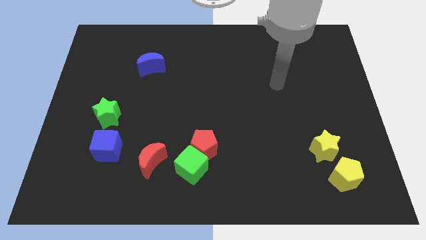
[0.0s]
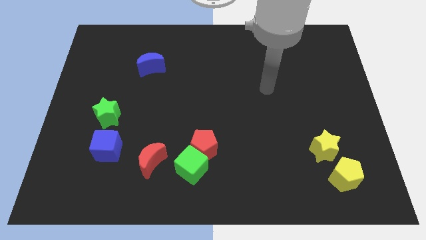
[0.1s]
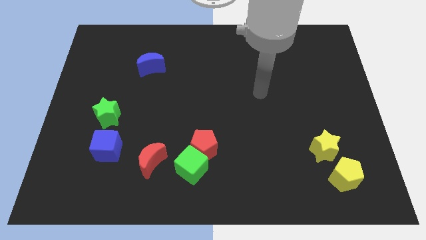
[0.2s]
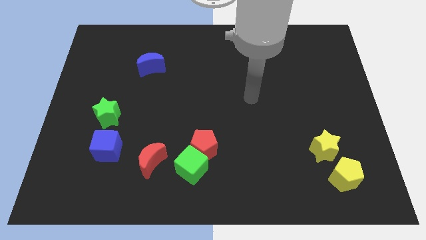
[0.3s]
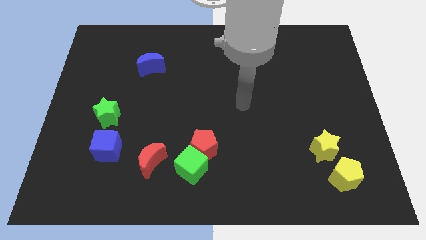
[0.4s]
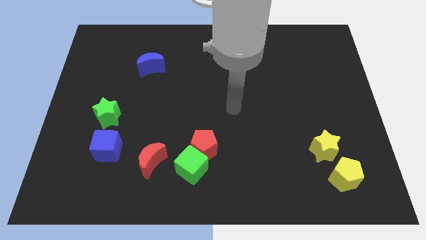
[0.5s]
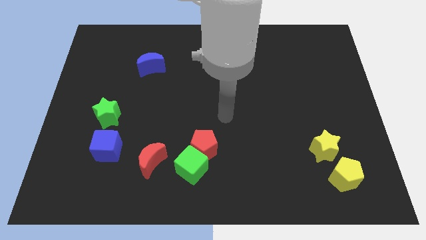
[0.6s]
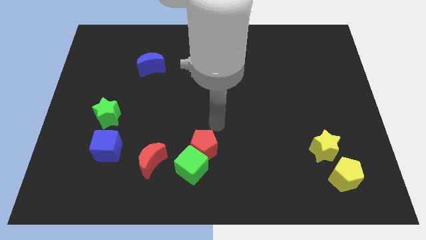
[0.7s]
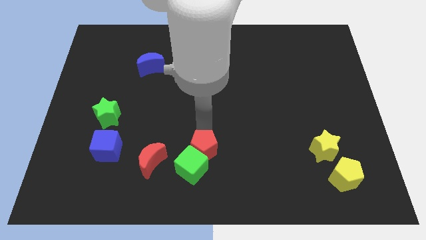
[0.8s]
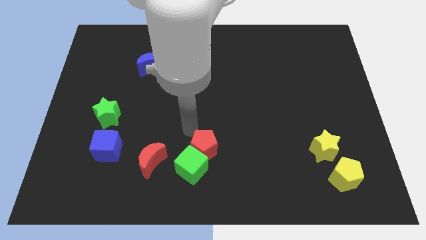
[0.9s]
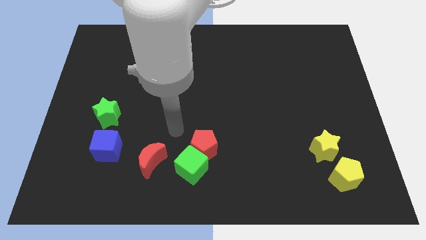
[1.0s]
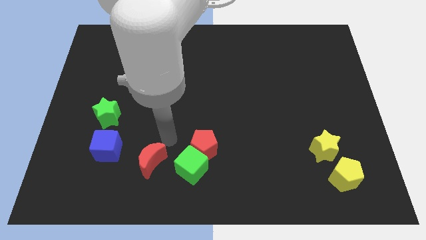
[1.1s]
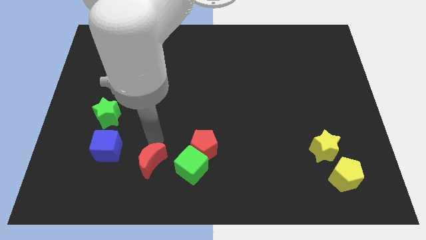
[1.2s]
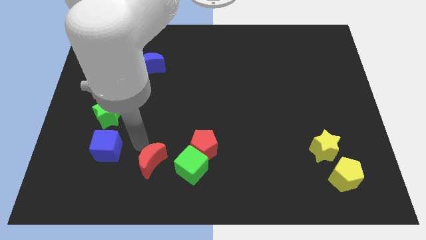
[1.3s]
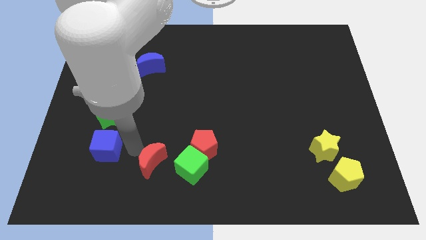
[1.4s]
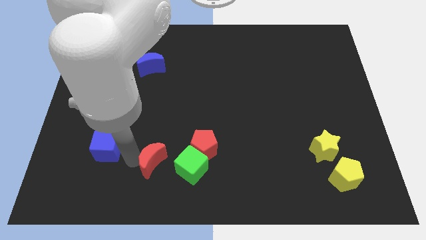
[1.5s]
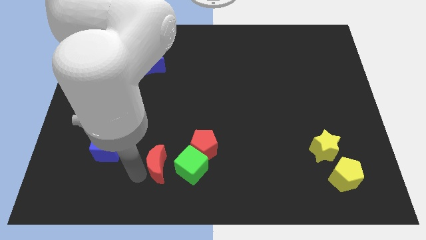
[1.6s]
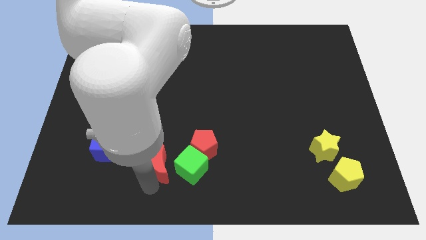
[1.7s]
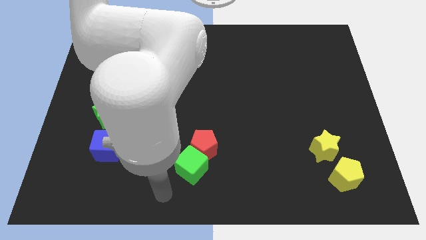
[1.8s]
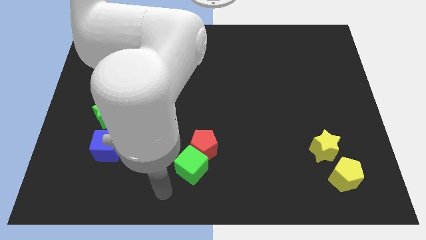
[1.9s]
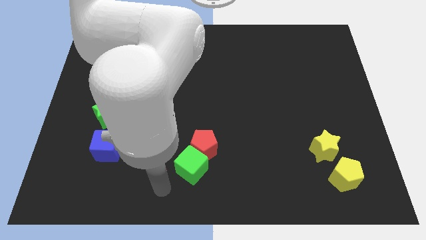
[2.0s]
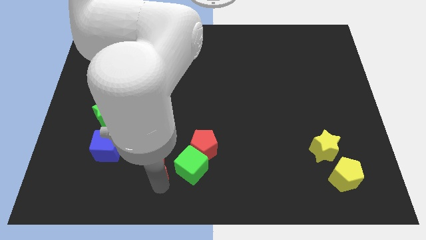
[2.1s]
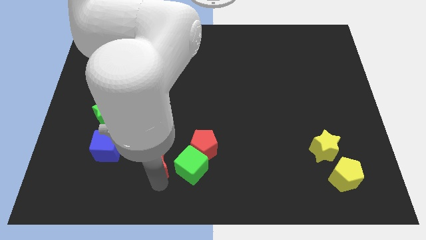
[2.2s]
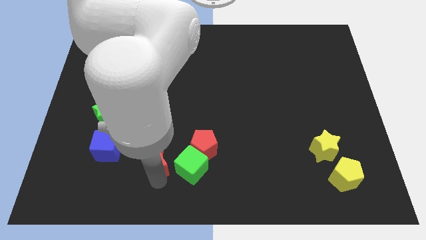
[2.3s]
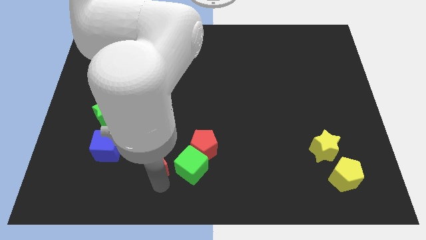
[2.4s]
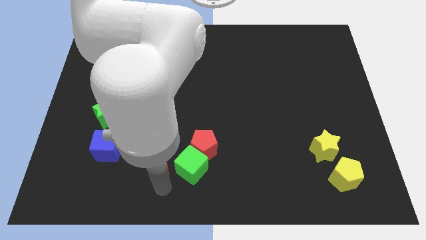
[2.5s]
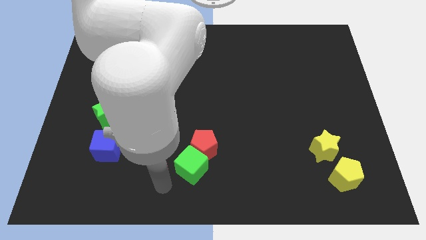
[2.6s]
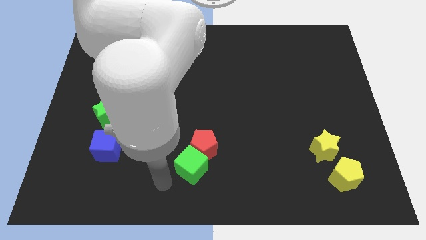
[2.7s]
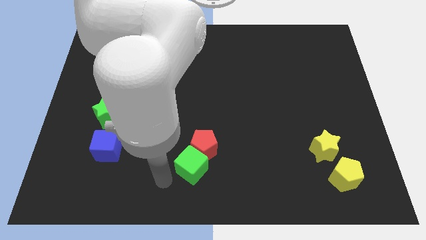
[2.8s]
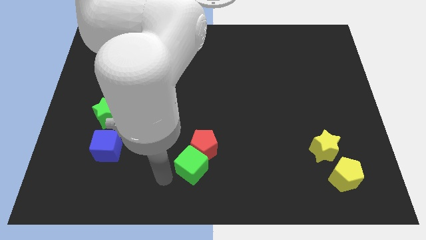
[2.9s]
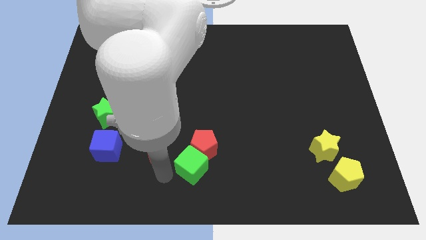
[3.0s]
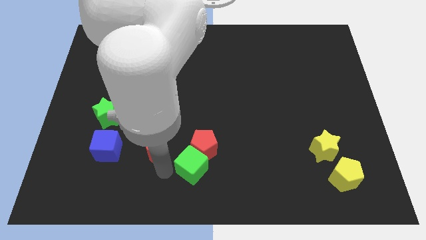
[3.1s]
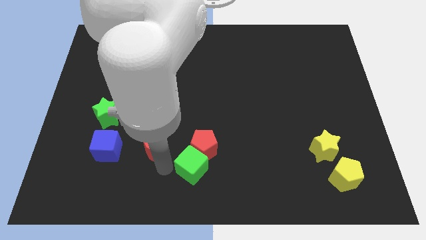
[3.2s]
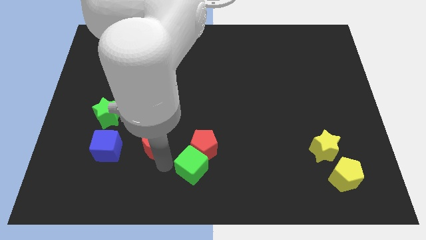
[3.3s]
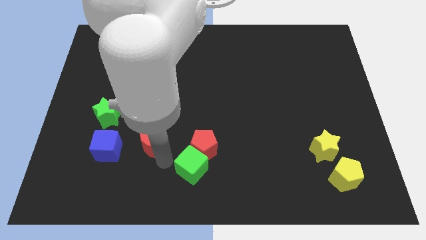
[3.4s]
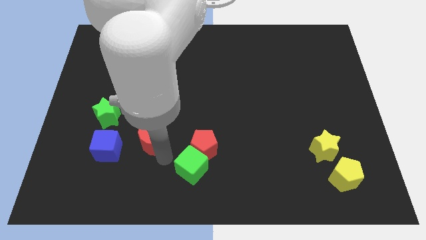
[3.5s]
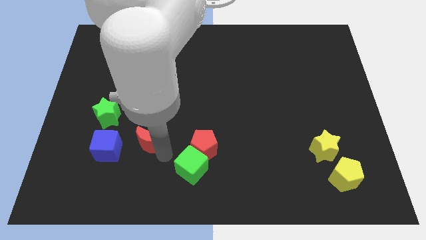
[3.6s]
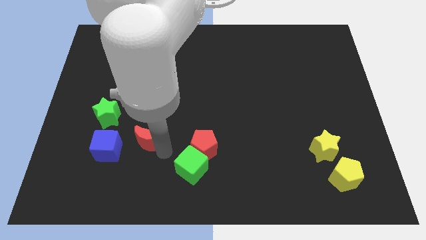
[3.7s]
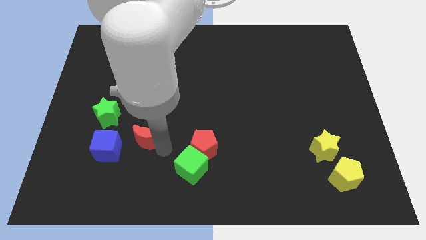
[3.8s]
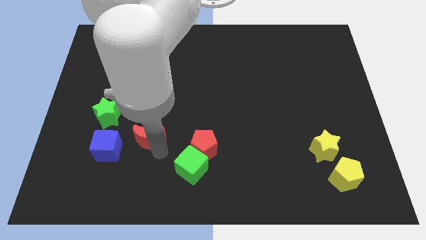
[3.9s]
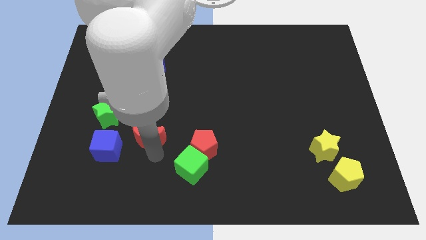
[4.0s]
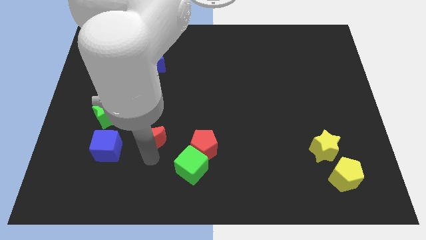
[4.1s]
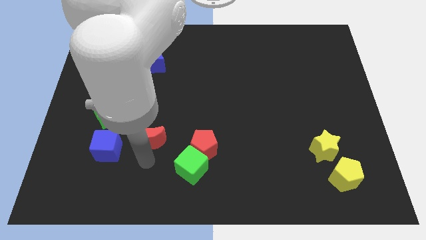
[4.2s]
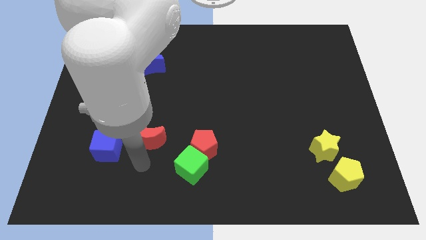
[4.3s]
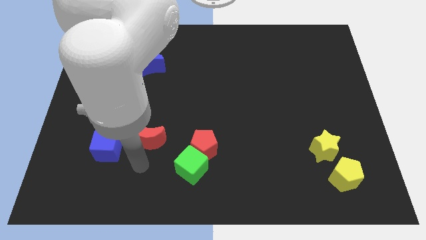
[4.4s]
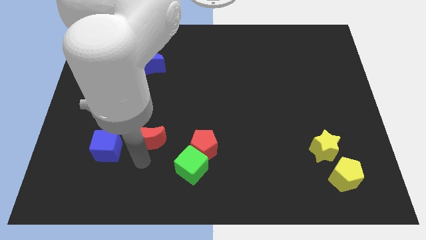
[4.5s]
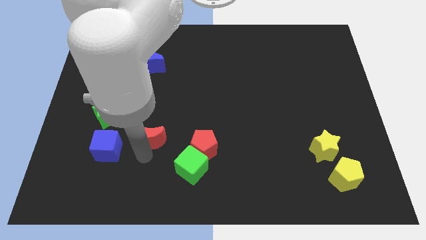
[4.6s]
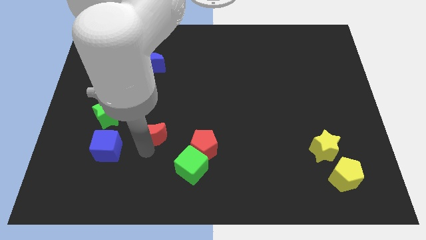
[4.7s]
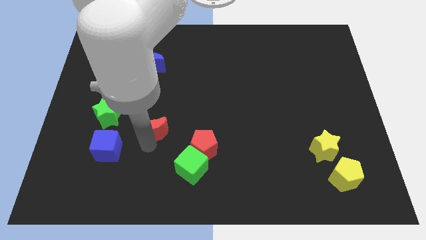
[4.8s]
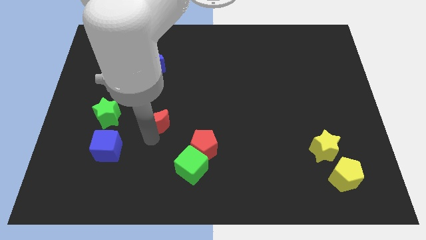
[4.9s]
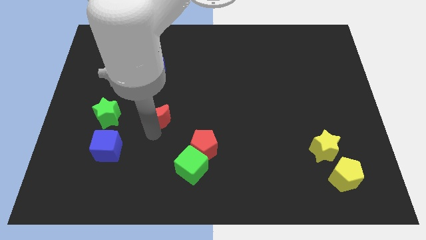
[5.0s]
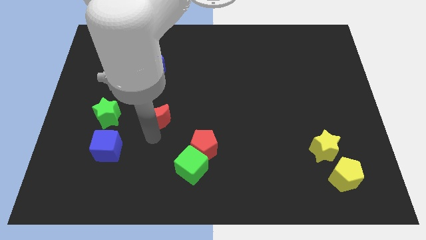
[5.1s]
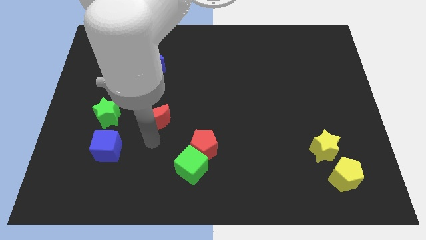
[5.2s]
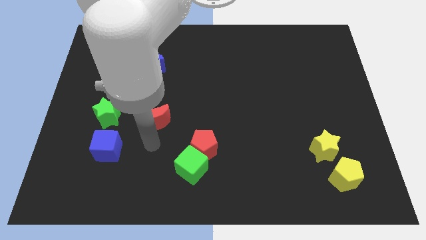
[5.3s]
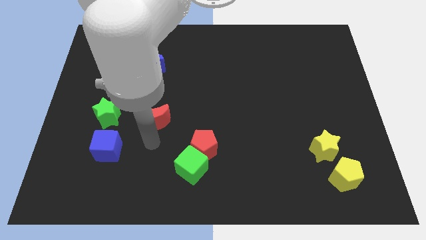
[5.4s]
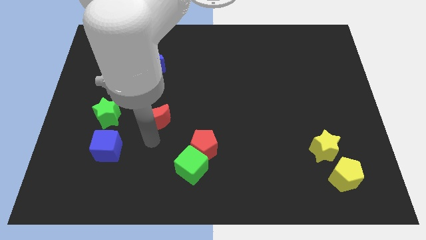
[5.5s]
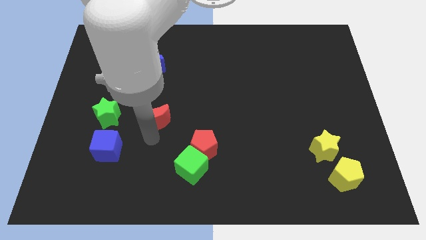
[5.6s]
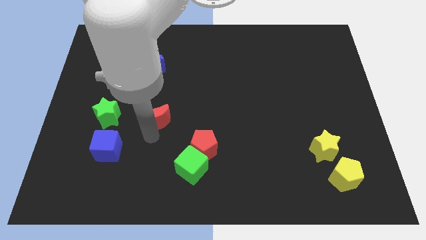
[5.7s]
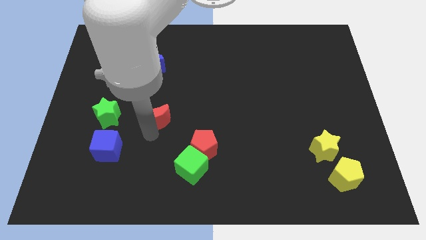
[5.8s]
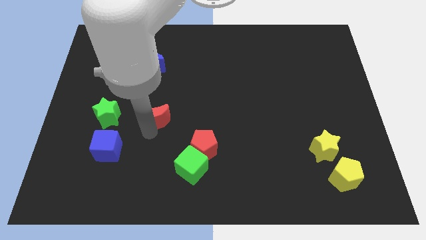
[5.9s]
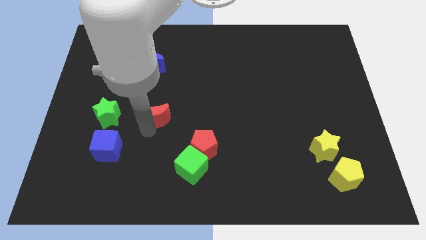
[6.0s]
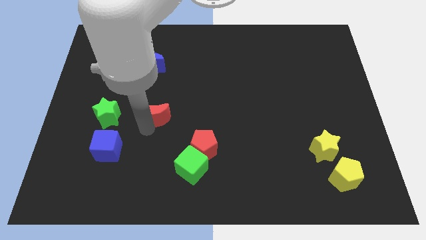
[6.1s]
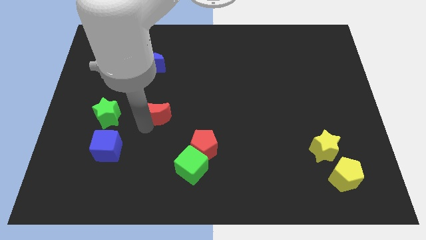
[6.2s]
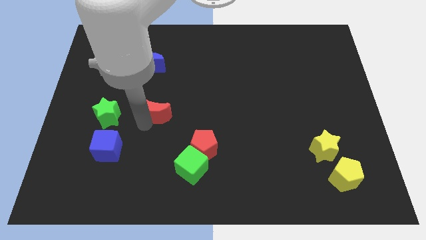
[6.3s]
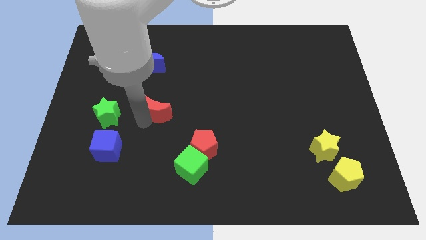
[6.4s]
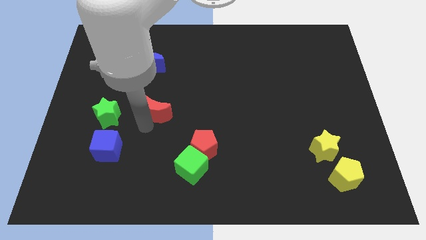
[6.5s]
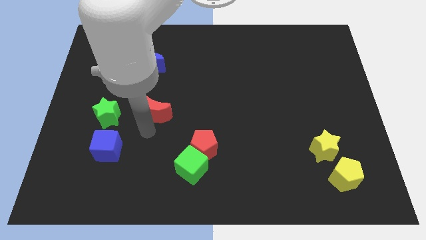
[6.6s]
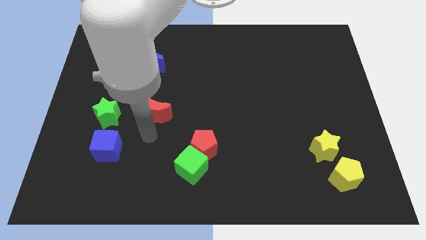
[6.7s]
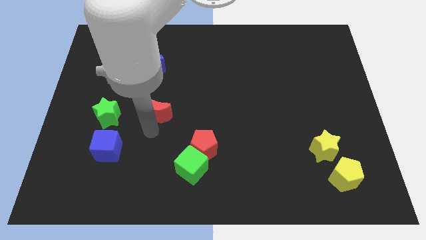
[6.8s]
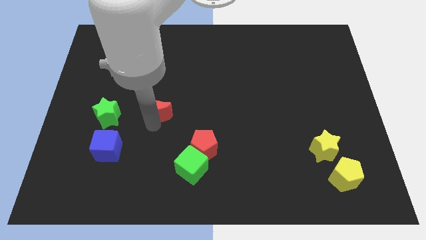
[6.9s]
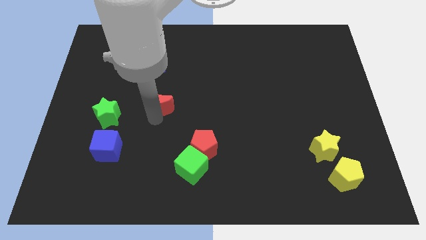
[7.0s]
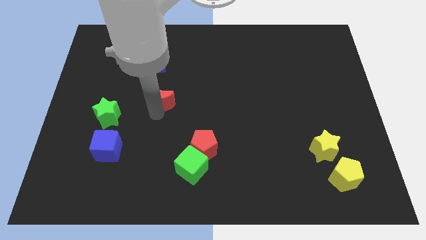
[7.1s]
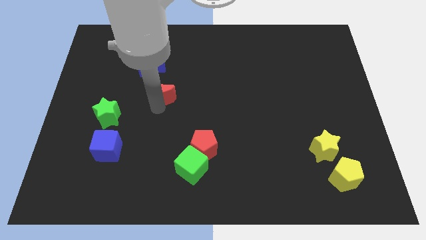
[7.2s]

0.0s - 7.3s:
slide the red moon to the bottom right of the blue moon

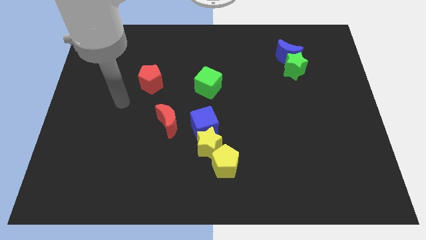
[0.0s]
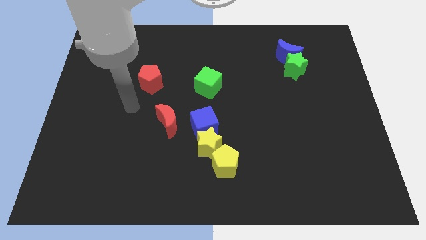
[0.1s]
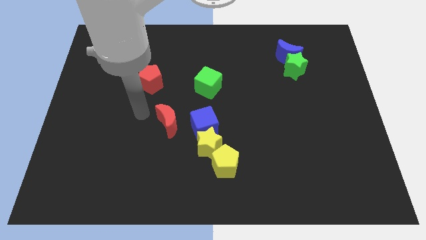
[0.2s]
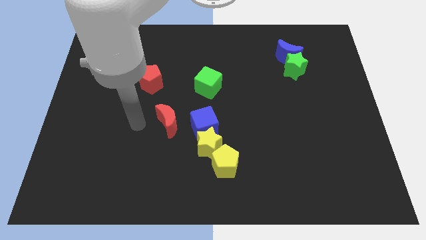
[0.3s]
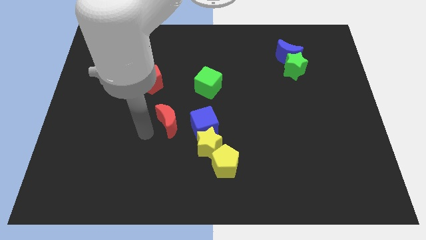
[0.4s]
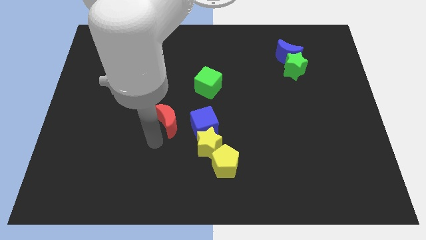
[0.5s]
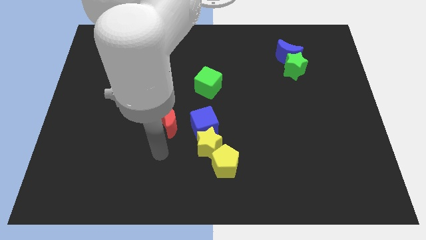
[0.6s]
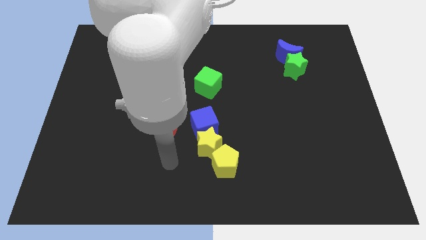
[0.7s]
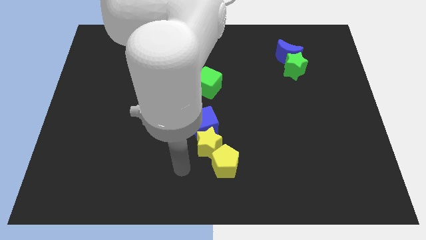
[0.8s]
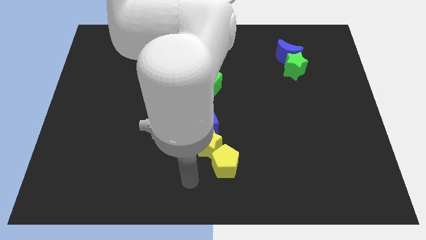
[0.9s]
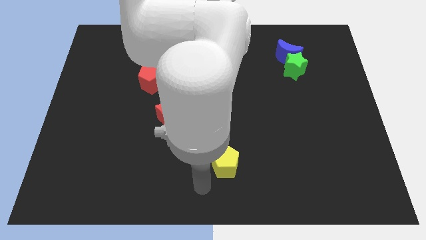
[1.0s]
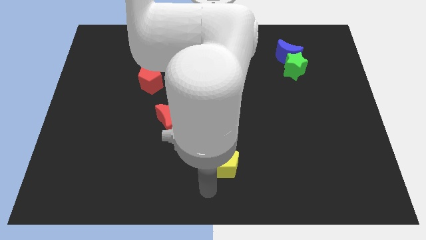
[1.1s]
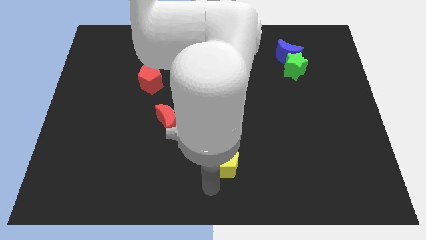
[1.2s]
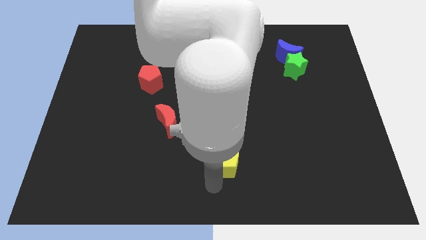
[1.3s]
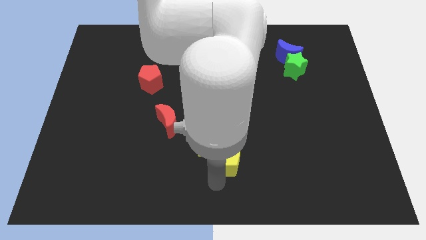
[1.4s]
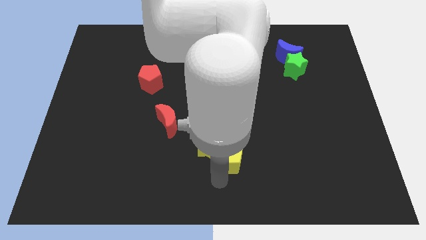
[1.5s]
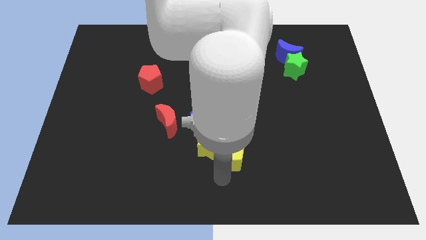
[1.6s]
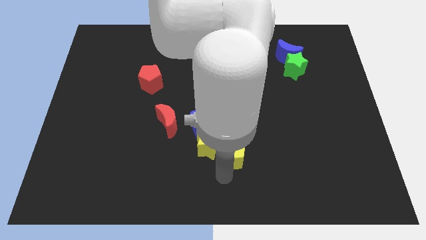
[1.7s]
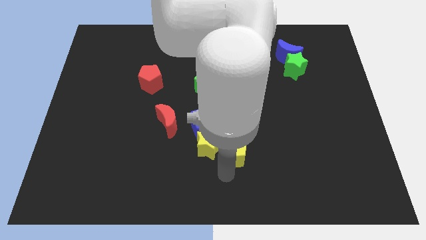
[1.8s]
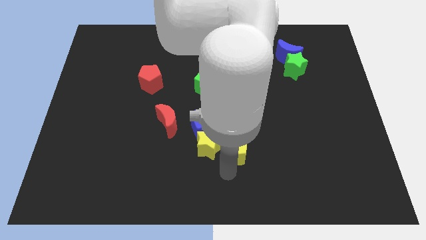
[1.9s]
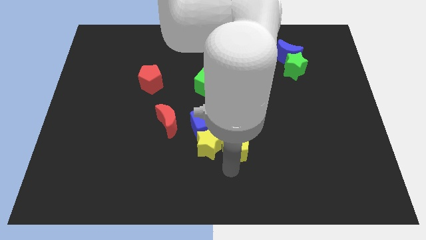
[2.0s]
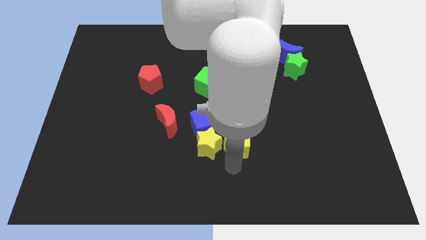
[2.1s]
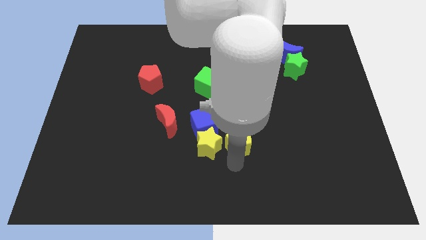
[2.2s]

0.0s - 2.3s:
put the yellow pentagon just right of the blue cube
